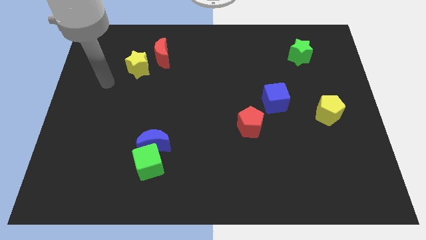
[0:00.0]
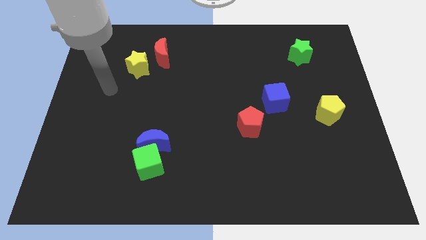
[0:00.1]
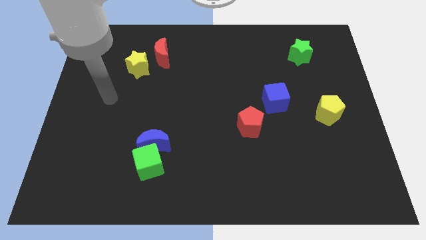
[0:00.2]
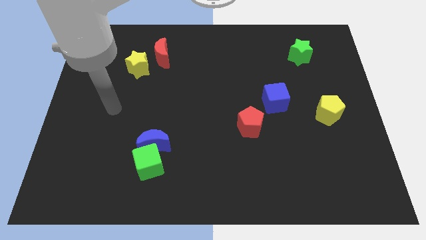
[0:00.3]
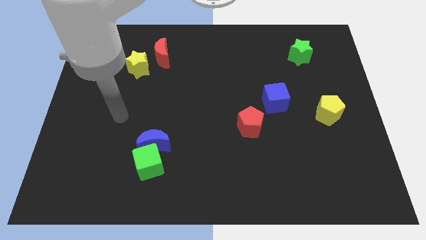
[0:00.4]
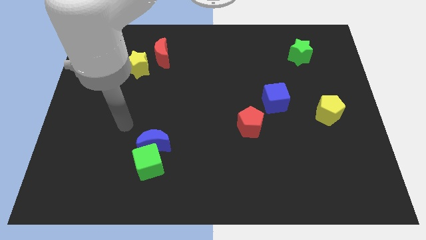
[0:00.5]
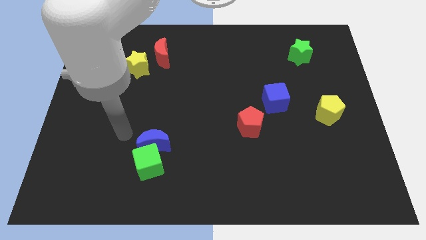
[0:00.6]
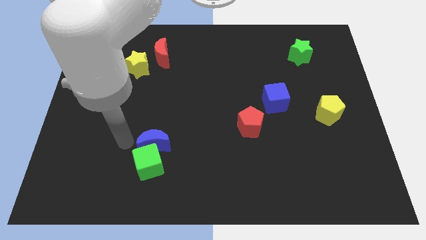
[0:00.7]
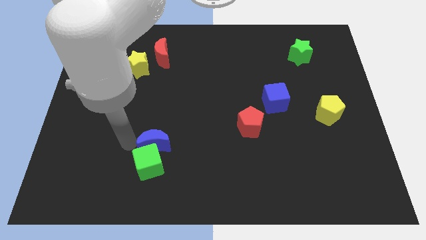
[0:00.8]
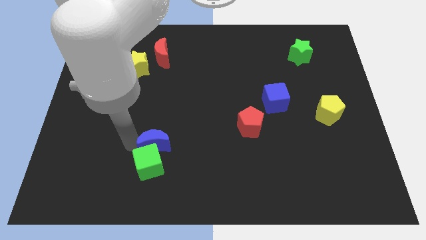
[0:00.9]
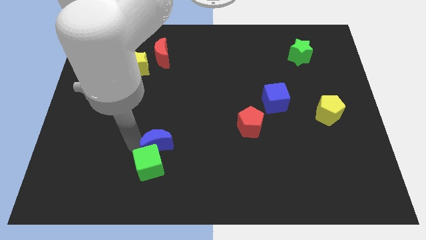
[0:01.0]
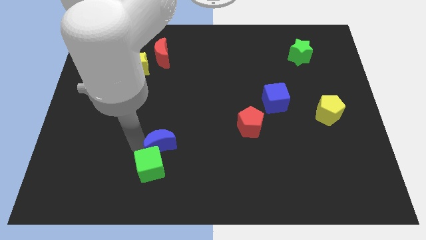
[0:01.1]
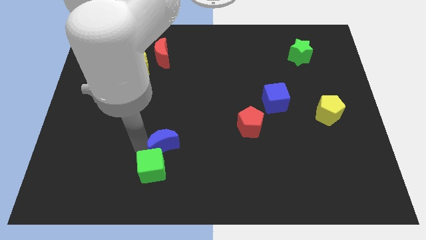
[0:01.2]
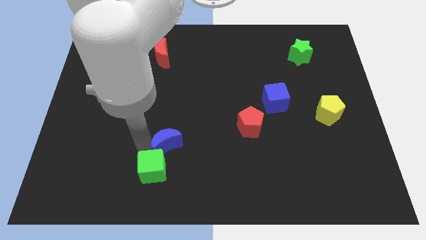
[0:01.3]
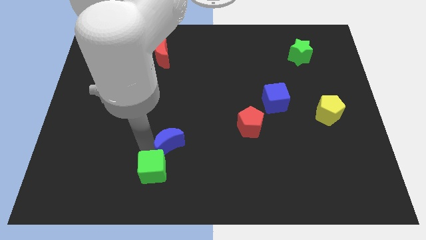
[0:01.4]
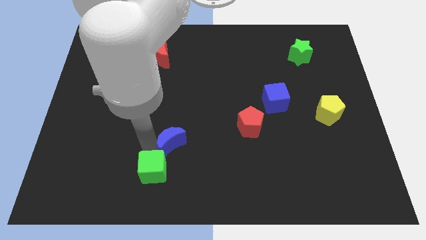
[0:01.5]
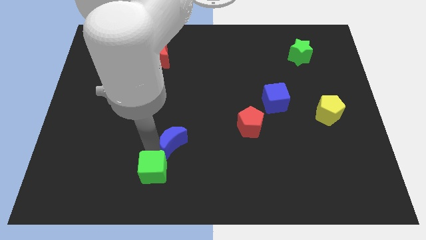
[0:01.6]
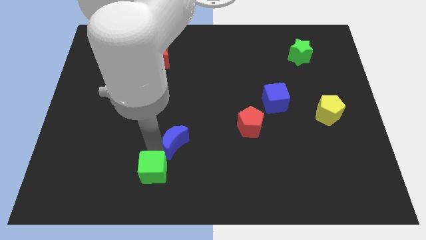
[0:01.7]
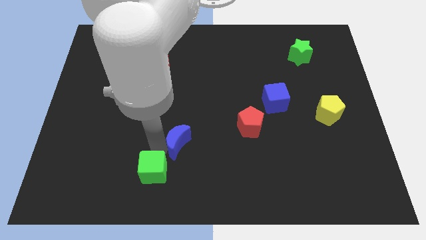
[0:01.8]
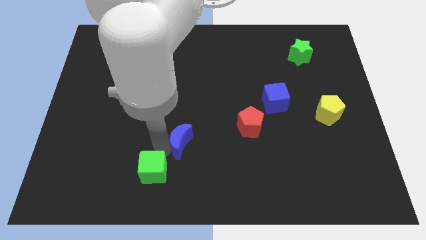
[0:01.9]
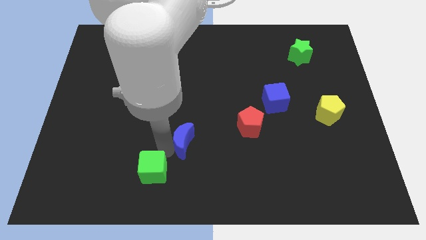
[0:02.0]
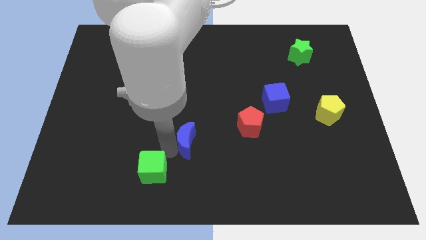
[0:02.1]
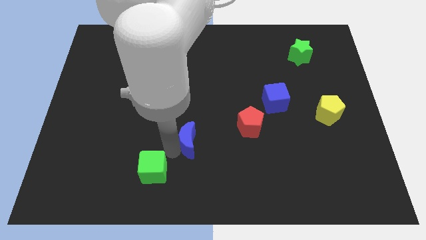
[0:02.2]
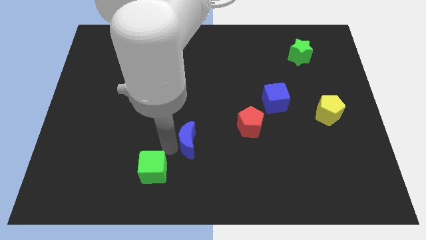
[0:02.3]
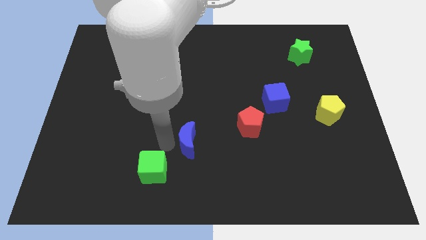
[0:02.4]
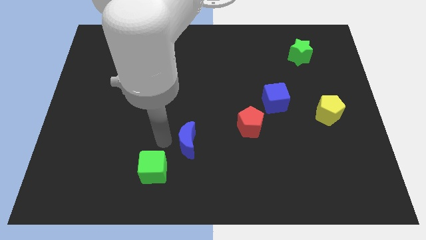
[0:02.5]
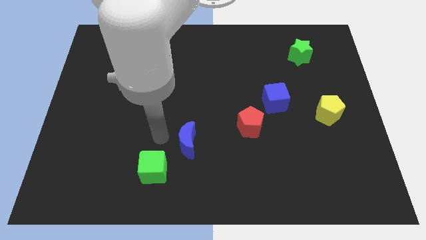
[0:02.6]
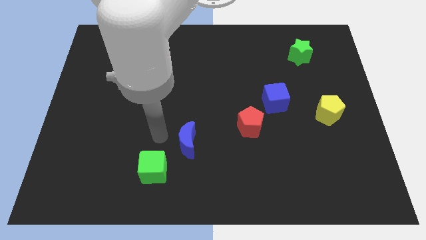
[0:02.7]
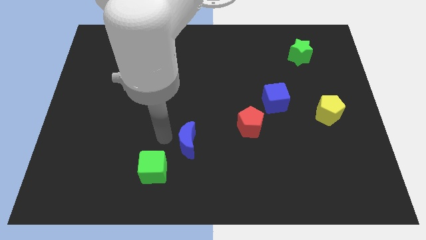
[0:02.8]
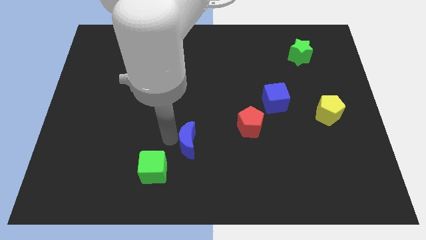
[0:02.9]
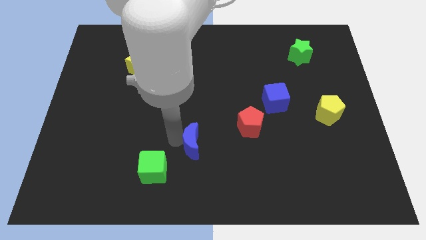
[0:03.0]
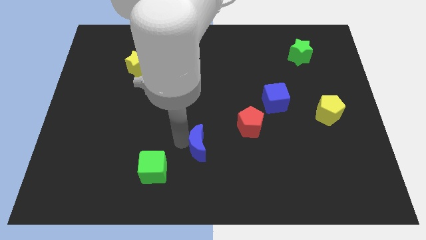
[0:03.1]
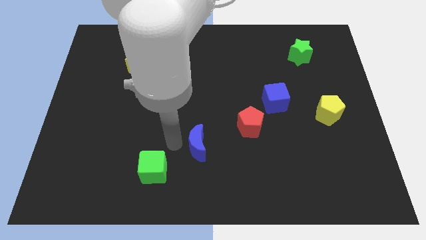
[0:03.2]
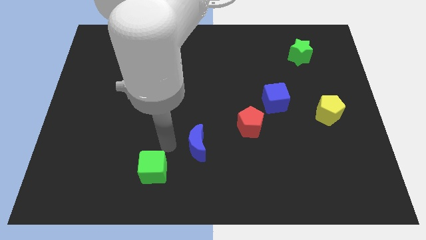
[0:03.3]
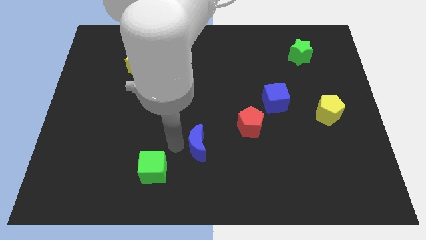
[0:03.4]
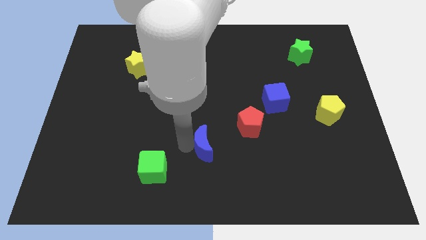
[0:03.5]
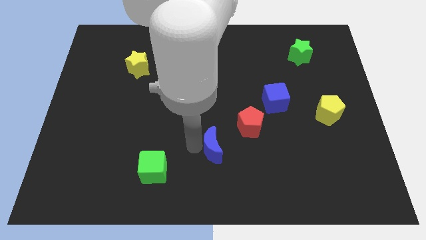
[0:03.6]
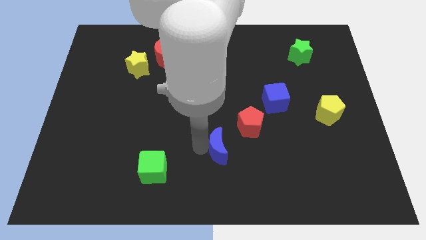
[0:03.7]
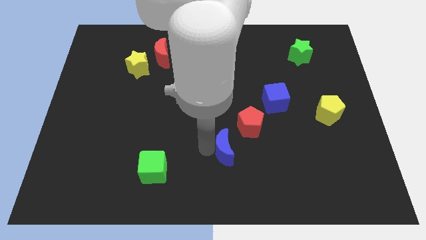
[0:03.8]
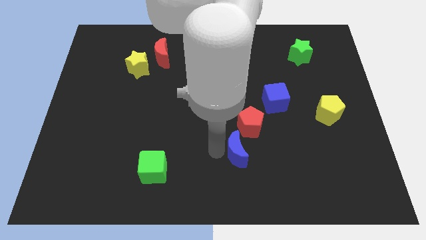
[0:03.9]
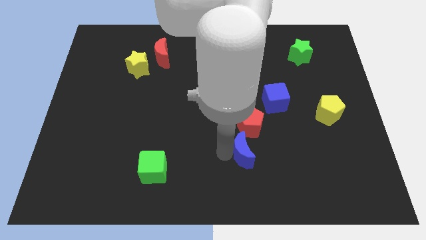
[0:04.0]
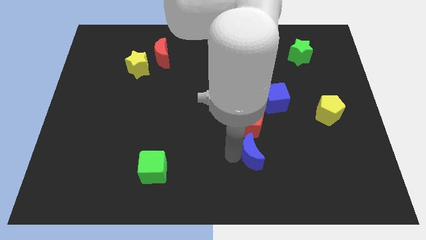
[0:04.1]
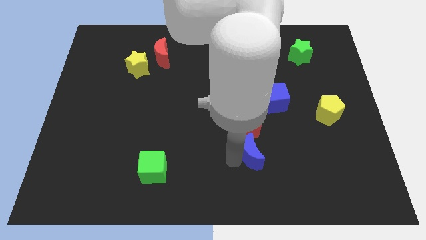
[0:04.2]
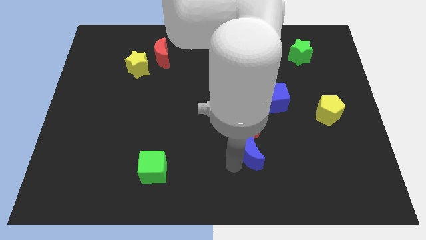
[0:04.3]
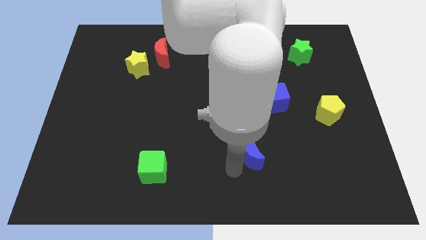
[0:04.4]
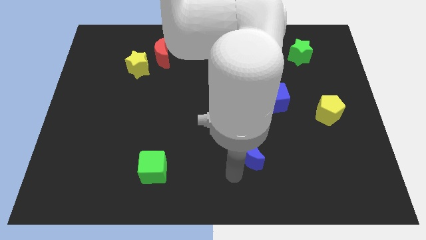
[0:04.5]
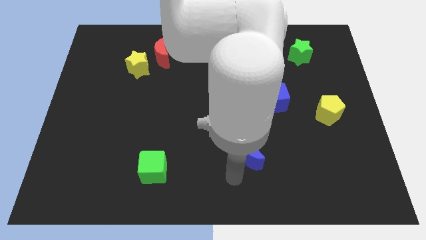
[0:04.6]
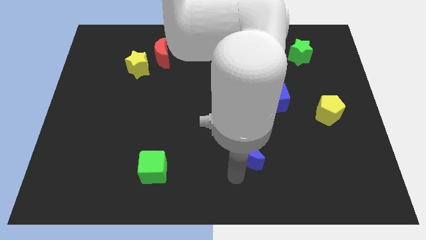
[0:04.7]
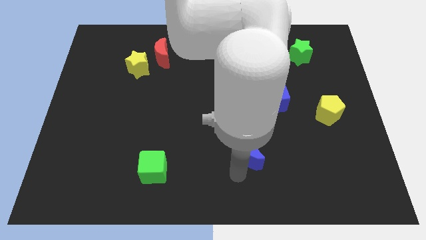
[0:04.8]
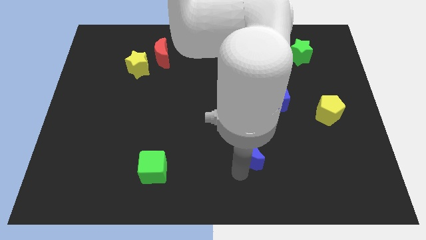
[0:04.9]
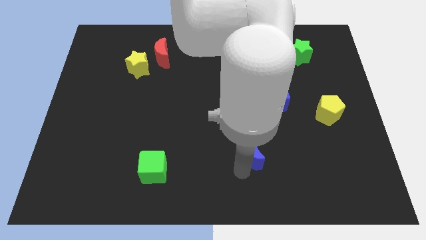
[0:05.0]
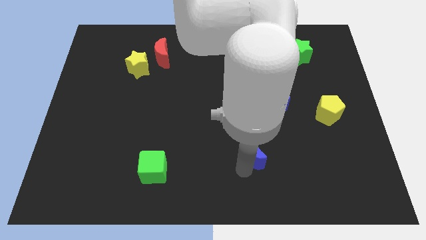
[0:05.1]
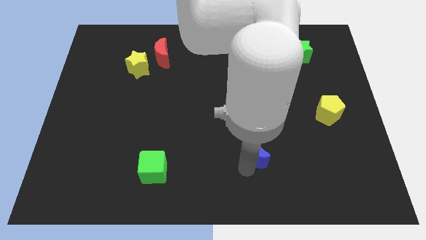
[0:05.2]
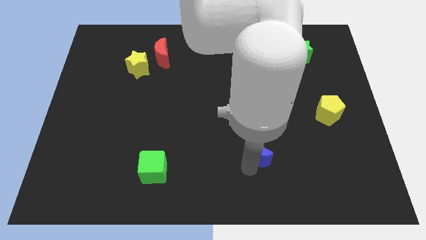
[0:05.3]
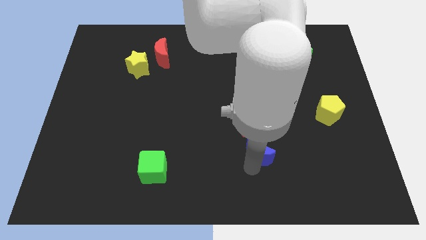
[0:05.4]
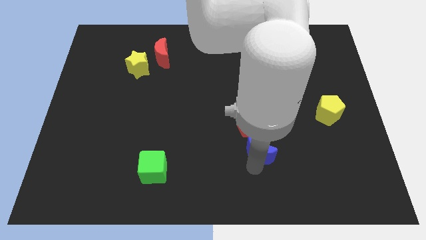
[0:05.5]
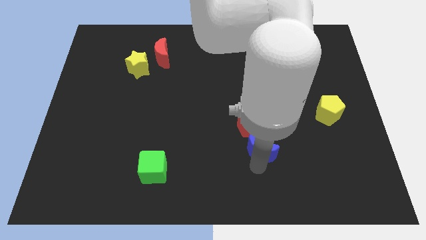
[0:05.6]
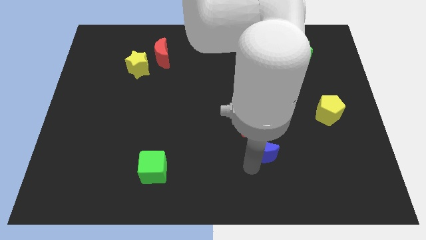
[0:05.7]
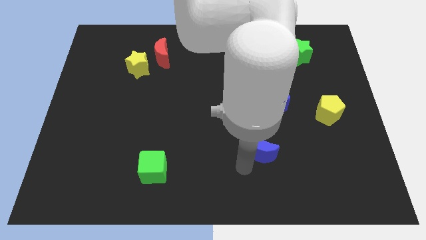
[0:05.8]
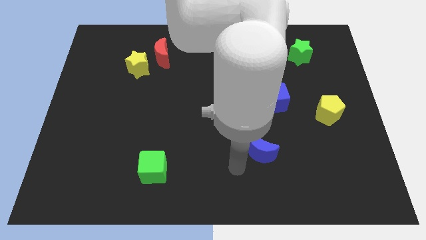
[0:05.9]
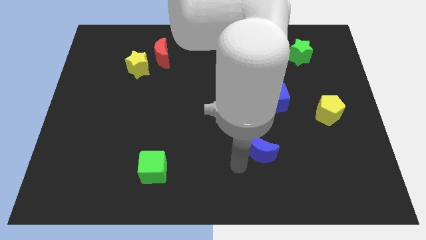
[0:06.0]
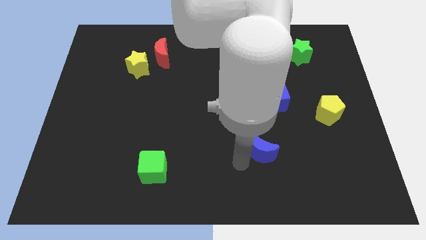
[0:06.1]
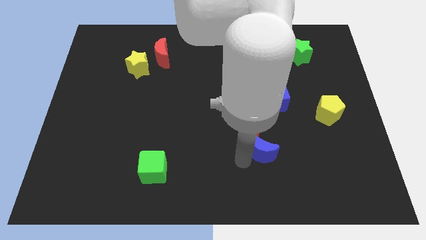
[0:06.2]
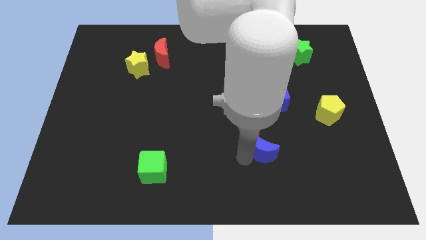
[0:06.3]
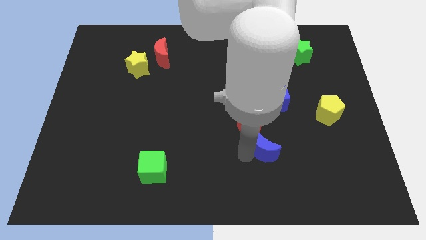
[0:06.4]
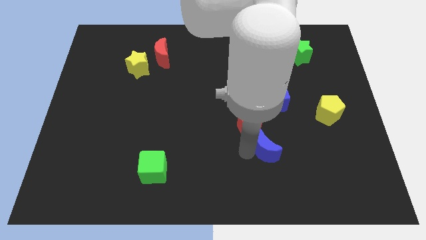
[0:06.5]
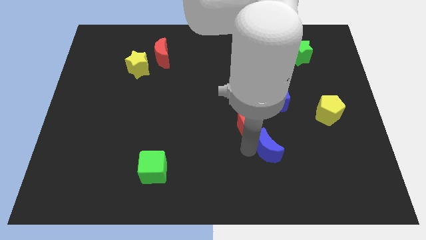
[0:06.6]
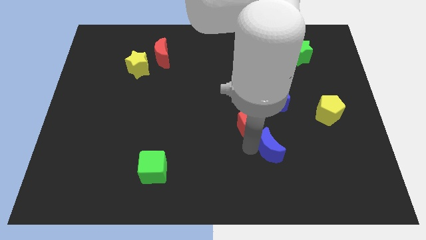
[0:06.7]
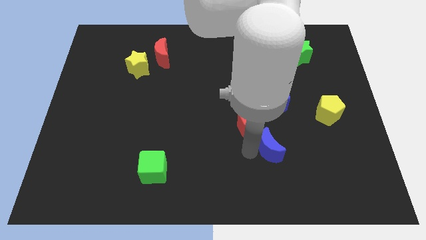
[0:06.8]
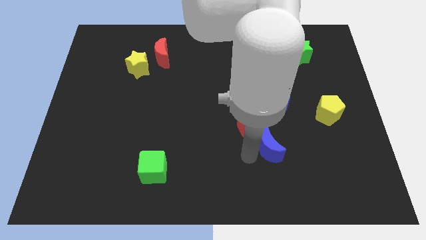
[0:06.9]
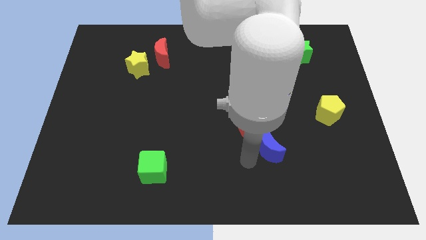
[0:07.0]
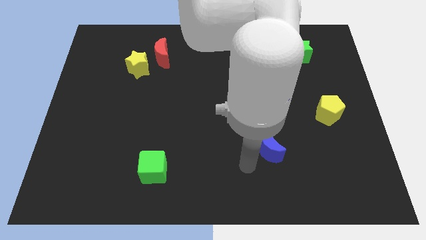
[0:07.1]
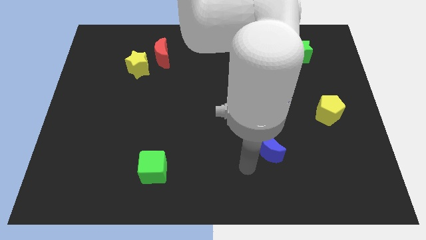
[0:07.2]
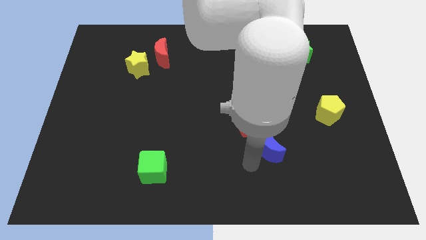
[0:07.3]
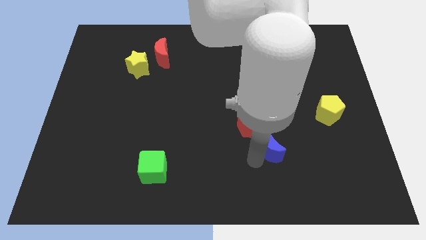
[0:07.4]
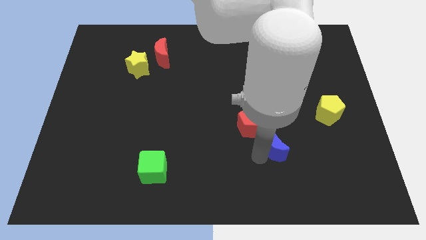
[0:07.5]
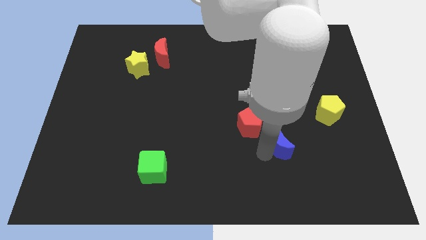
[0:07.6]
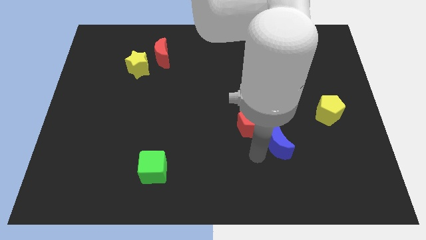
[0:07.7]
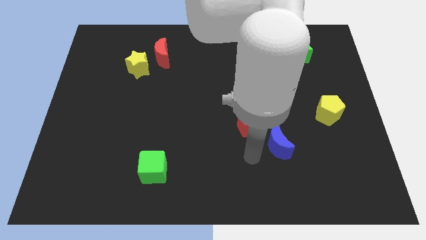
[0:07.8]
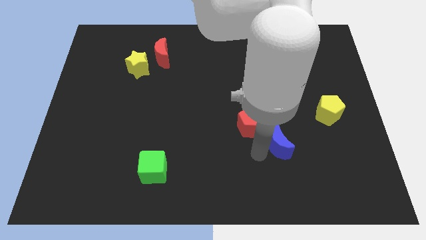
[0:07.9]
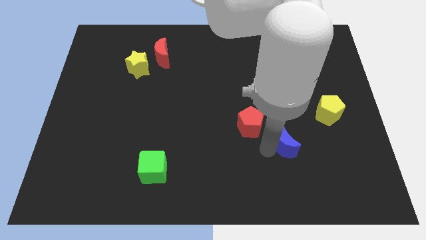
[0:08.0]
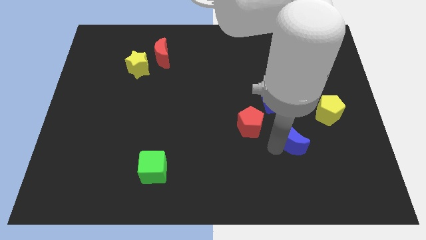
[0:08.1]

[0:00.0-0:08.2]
move the blue moon to the bottom left side of the yellow pentagon
